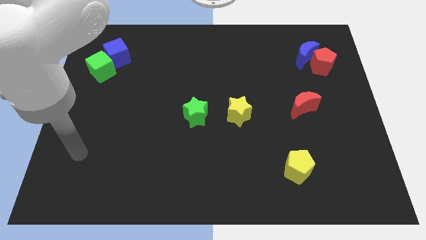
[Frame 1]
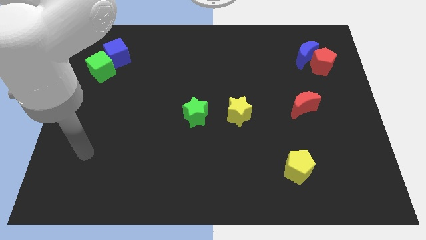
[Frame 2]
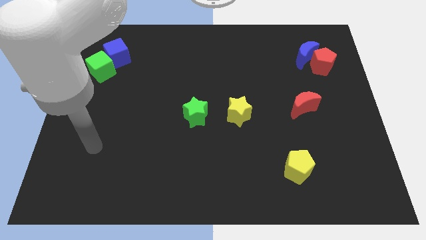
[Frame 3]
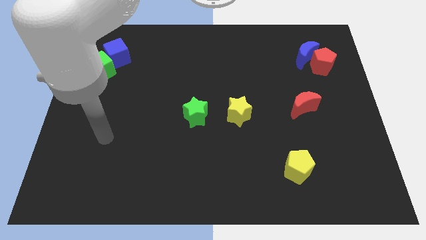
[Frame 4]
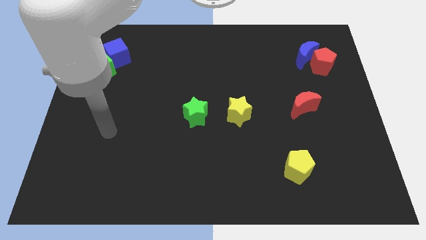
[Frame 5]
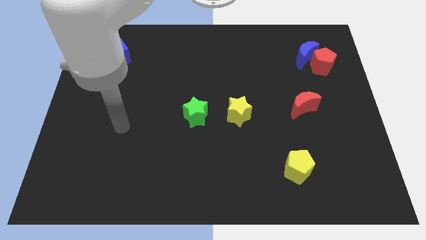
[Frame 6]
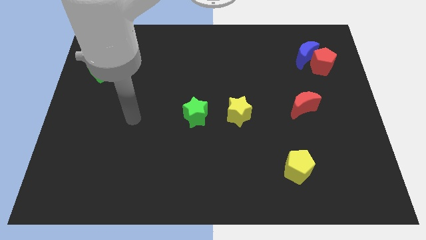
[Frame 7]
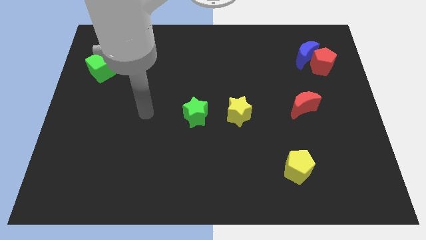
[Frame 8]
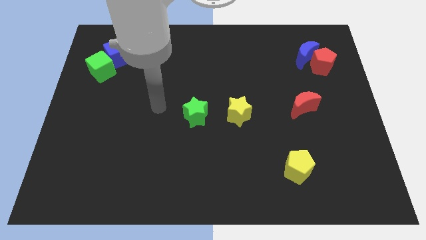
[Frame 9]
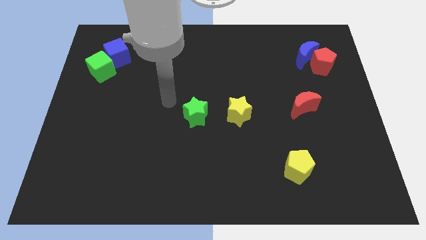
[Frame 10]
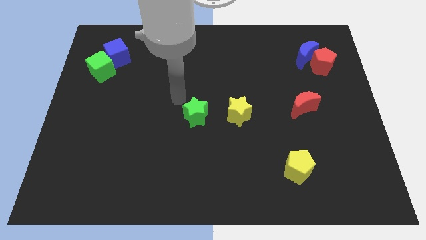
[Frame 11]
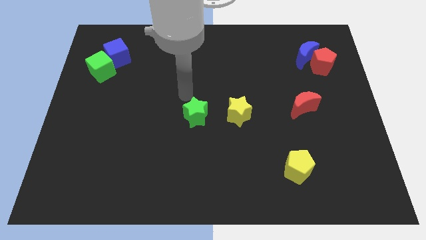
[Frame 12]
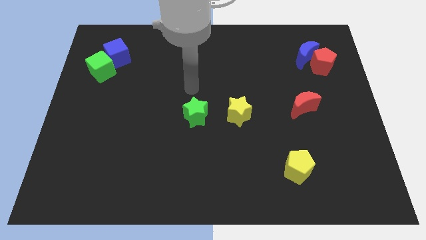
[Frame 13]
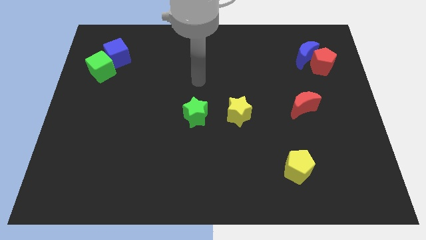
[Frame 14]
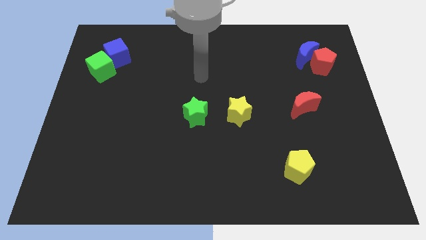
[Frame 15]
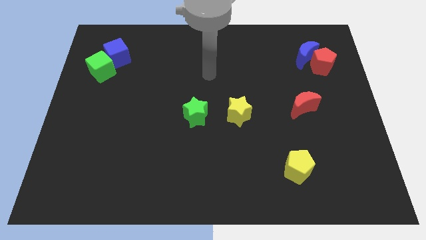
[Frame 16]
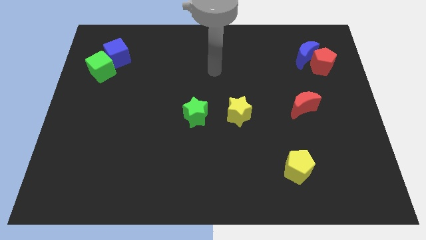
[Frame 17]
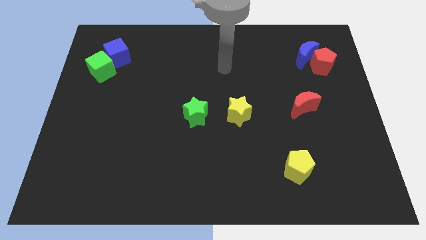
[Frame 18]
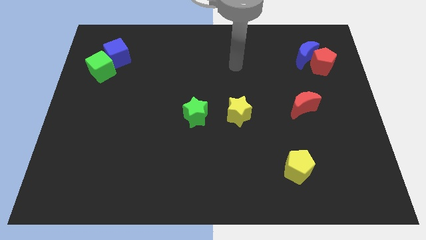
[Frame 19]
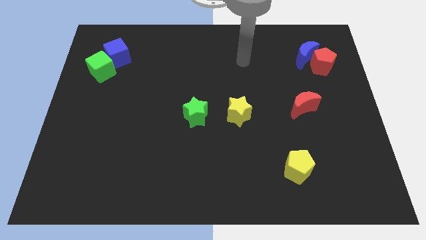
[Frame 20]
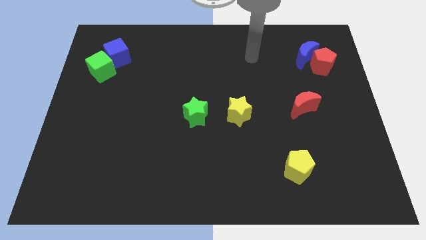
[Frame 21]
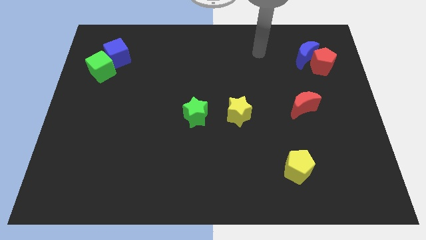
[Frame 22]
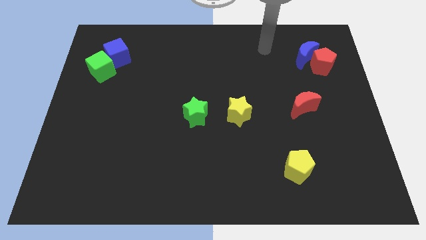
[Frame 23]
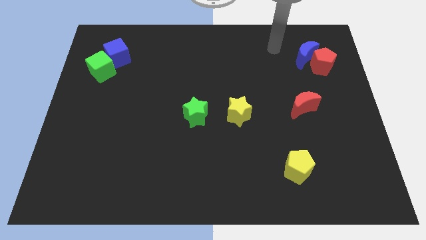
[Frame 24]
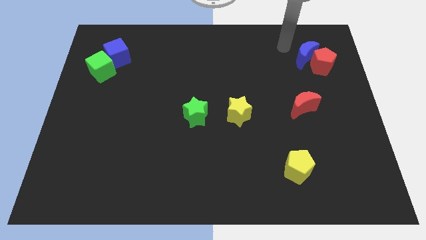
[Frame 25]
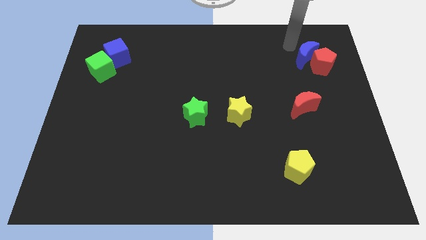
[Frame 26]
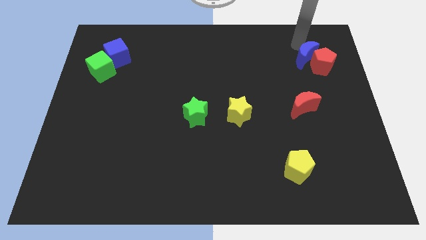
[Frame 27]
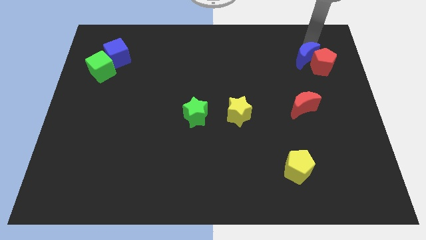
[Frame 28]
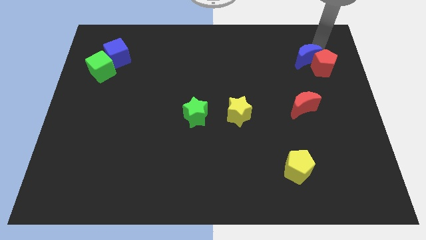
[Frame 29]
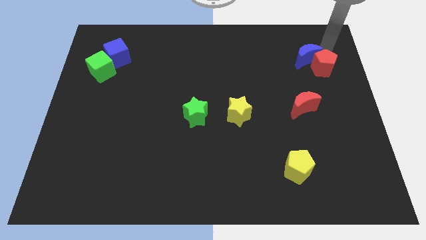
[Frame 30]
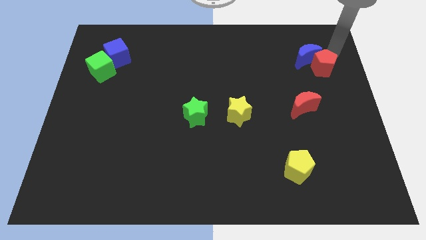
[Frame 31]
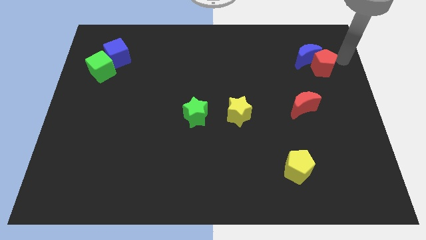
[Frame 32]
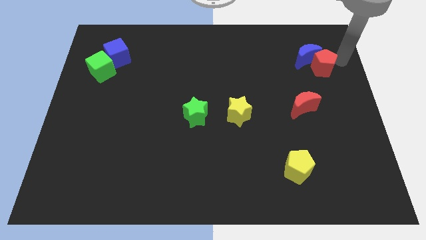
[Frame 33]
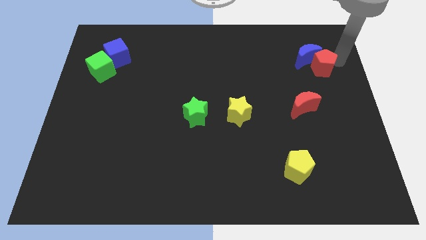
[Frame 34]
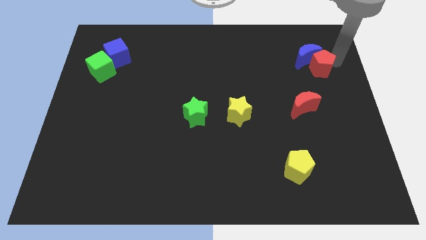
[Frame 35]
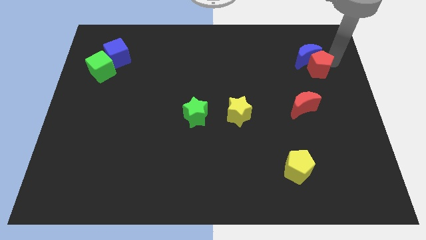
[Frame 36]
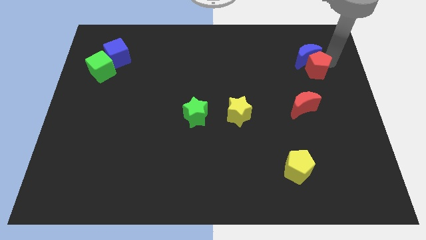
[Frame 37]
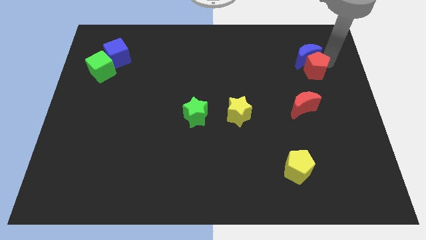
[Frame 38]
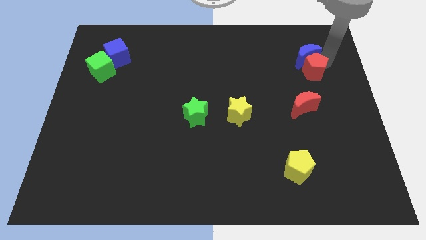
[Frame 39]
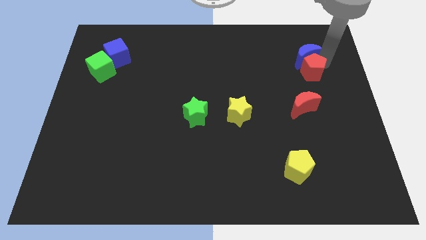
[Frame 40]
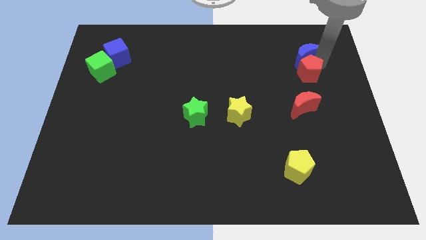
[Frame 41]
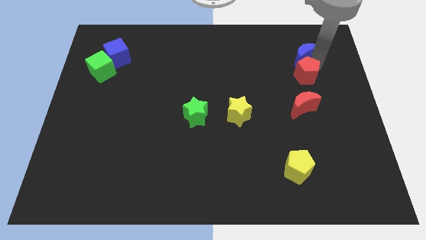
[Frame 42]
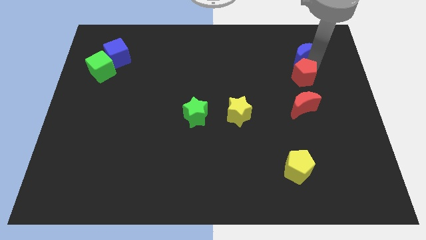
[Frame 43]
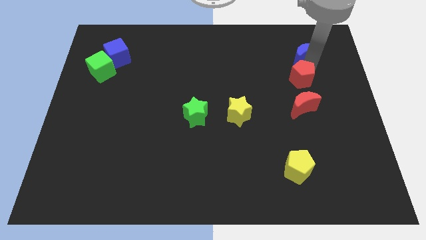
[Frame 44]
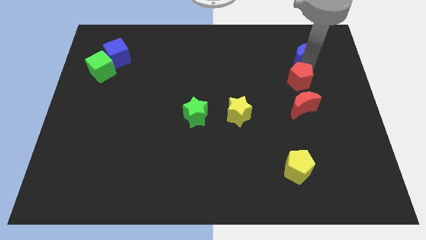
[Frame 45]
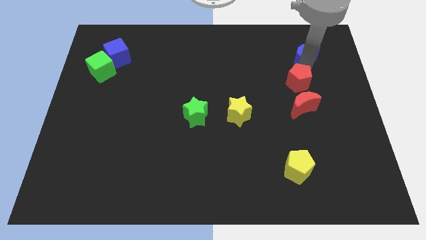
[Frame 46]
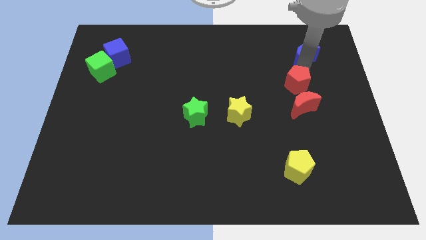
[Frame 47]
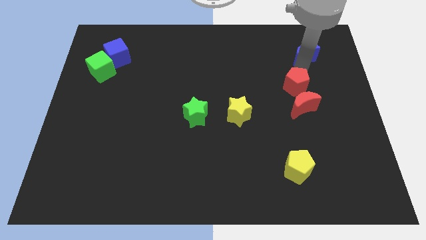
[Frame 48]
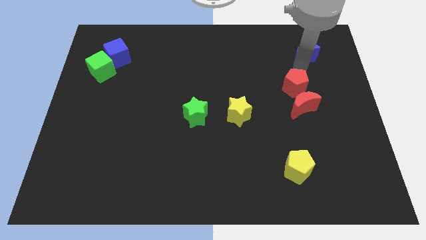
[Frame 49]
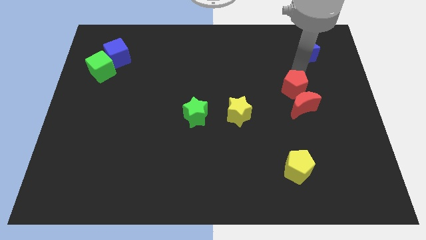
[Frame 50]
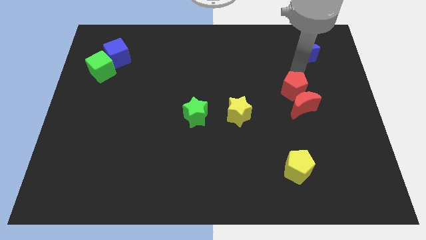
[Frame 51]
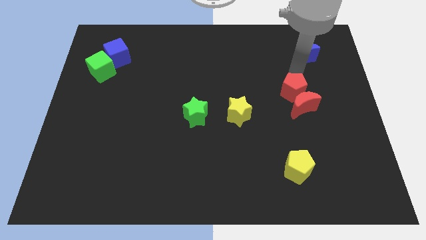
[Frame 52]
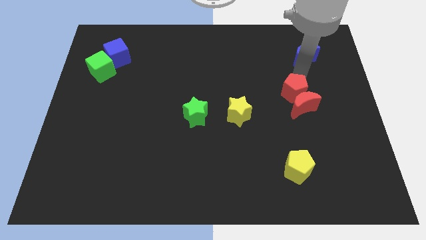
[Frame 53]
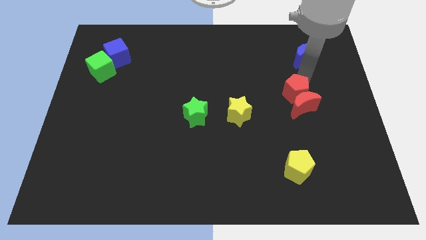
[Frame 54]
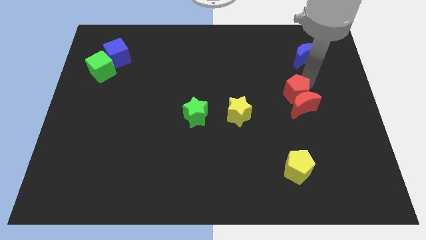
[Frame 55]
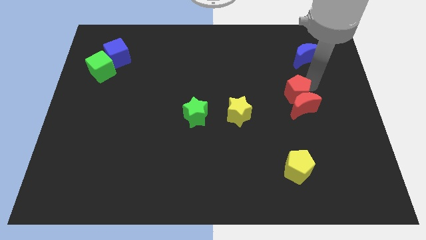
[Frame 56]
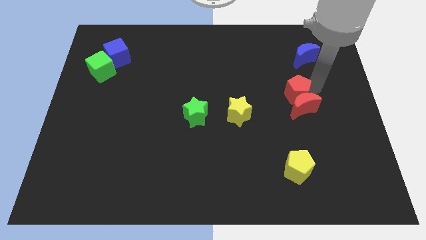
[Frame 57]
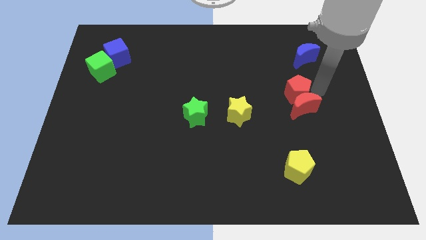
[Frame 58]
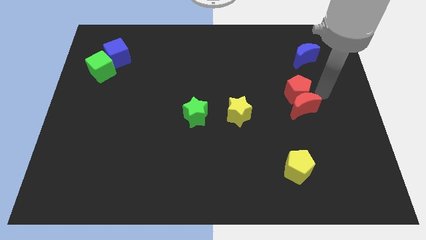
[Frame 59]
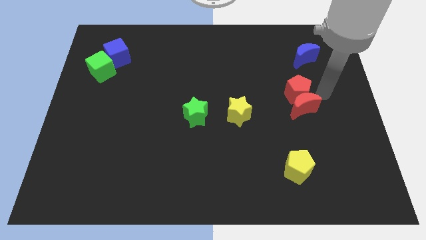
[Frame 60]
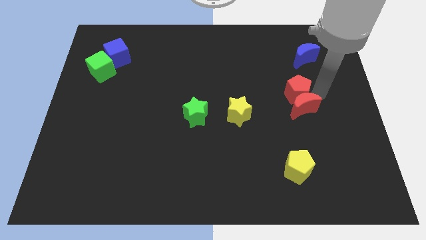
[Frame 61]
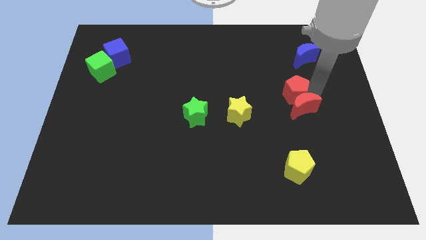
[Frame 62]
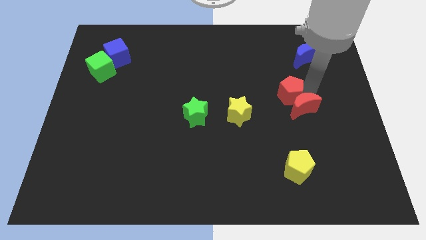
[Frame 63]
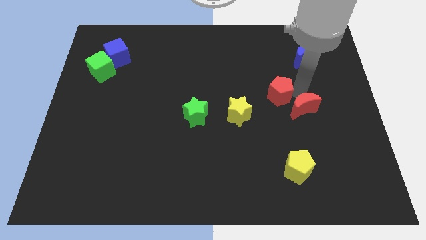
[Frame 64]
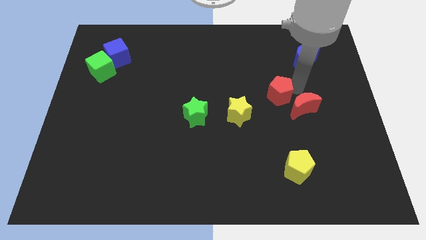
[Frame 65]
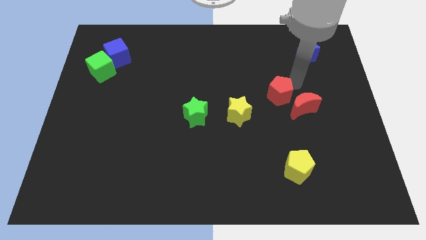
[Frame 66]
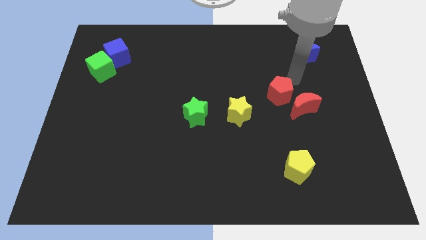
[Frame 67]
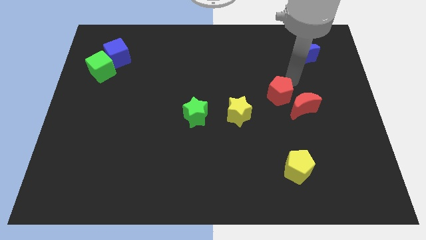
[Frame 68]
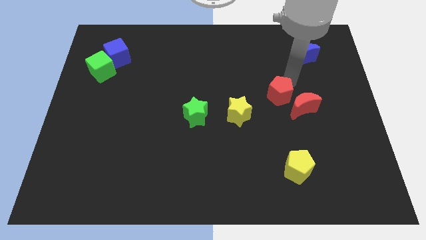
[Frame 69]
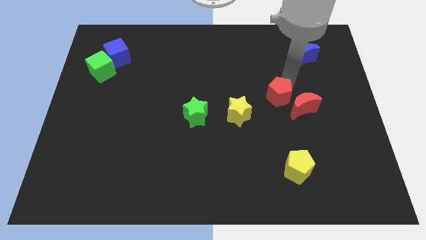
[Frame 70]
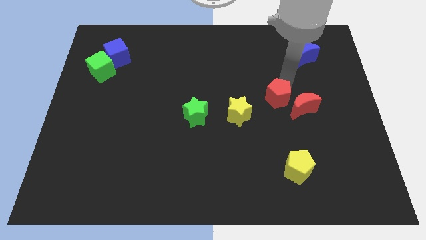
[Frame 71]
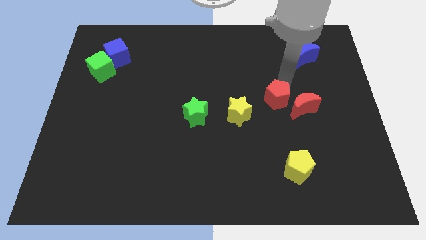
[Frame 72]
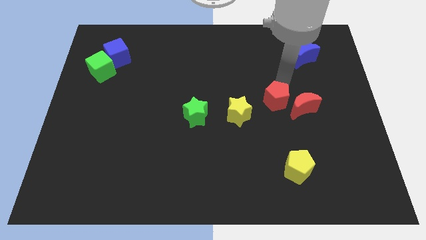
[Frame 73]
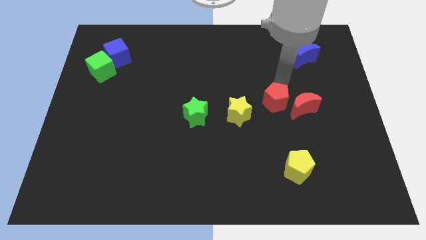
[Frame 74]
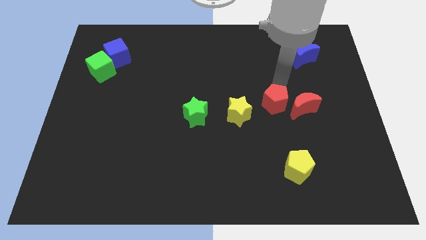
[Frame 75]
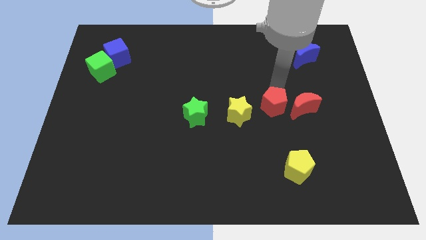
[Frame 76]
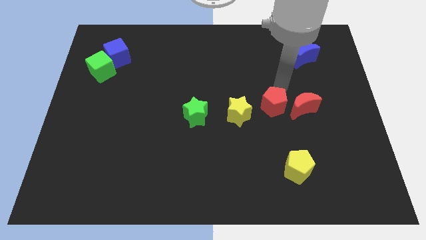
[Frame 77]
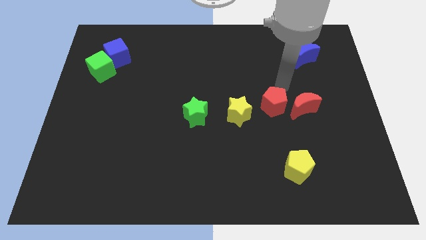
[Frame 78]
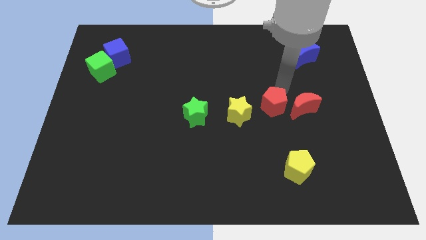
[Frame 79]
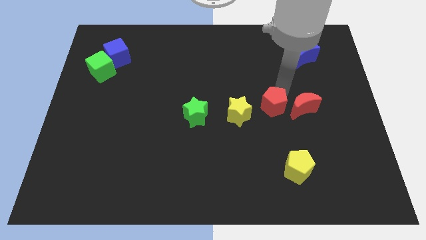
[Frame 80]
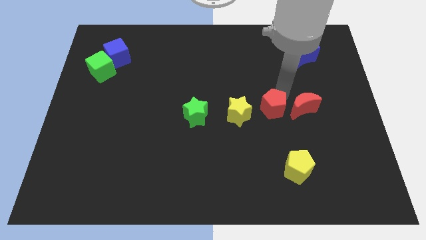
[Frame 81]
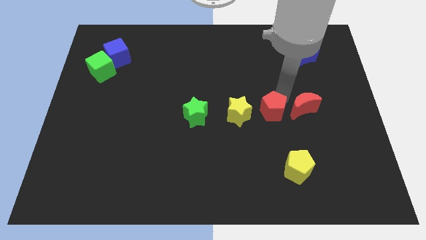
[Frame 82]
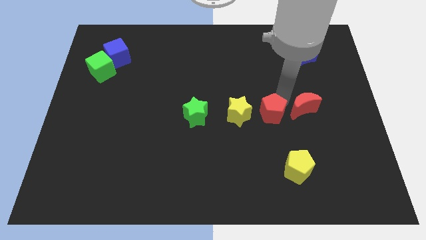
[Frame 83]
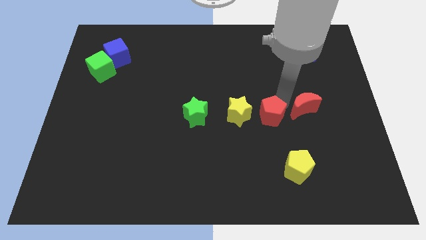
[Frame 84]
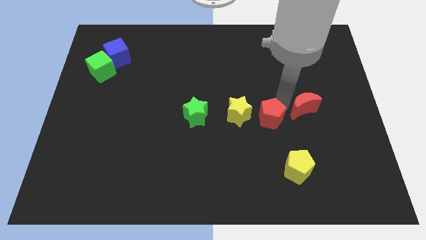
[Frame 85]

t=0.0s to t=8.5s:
put the red pentagon to the bottom right of the yellow star
